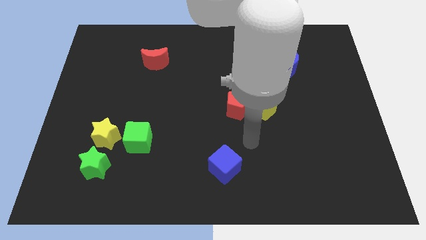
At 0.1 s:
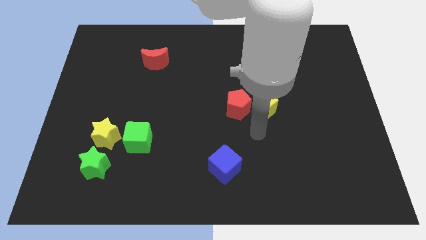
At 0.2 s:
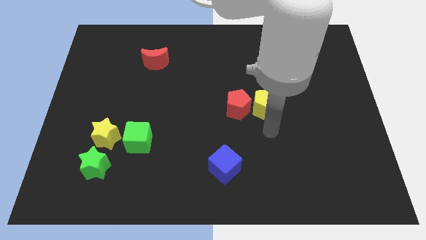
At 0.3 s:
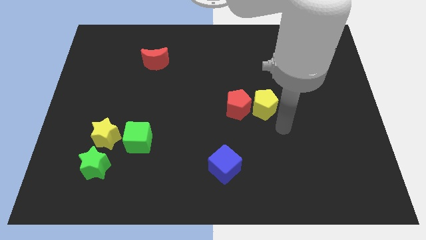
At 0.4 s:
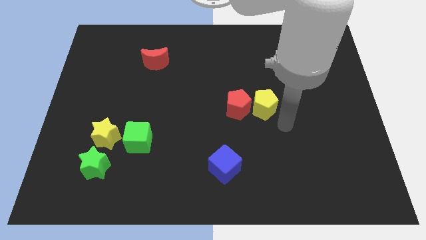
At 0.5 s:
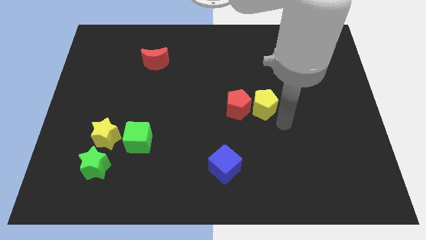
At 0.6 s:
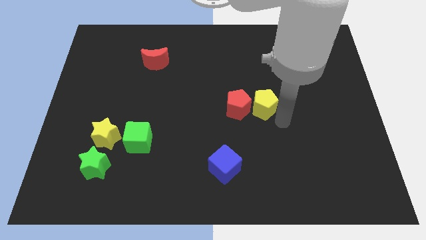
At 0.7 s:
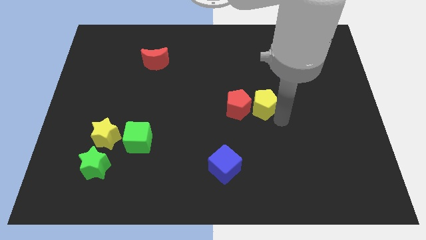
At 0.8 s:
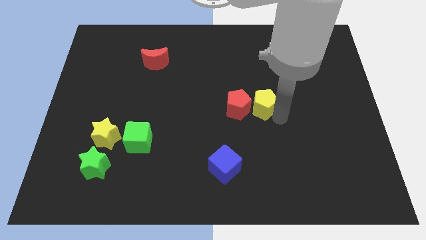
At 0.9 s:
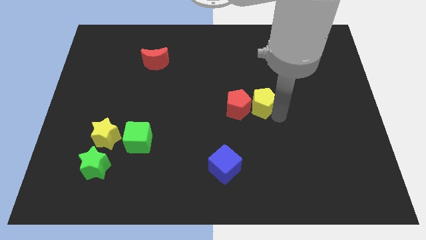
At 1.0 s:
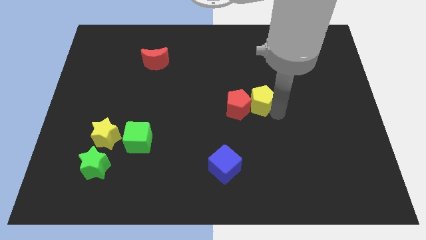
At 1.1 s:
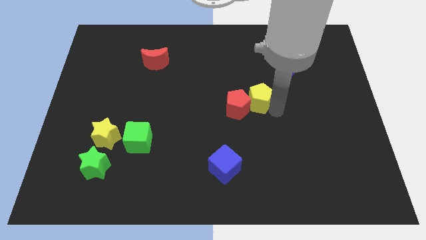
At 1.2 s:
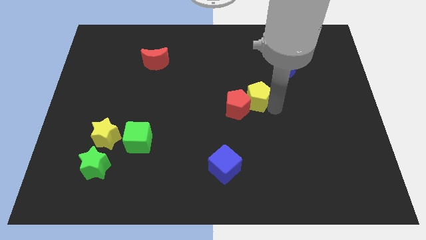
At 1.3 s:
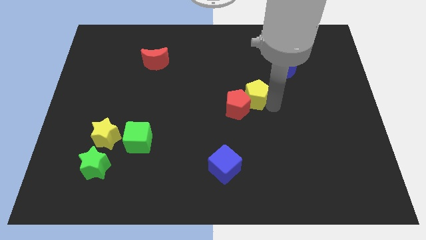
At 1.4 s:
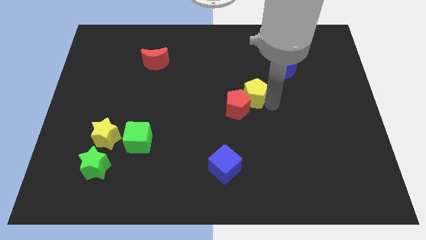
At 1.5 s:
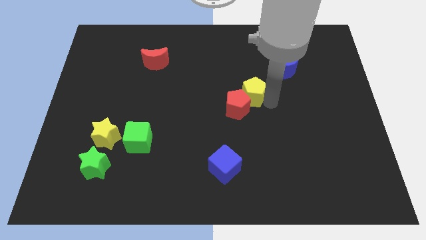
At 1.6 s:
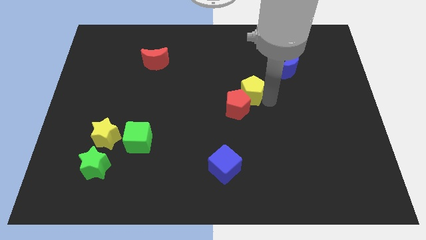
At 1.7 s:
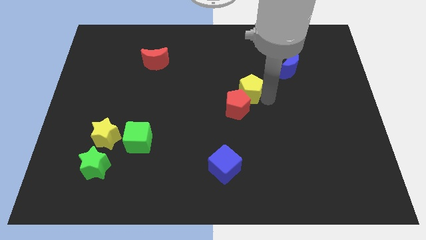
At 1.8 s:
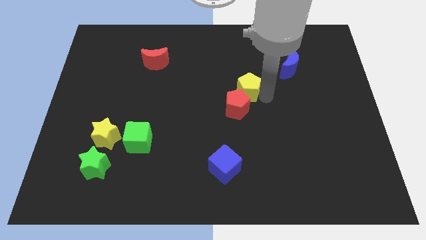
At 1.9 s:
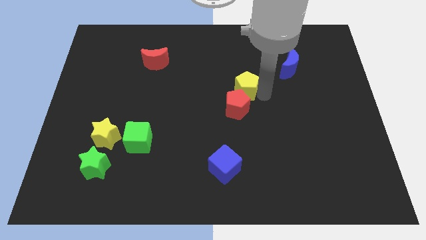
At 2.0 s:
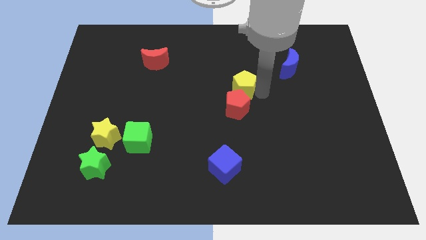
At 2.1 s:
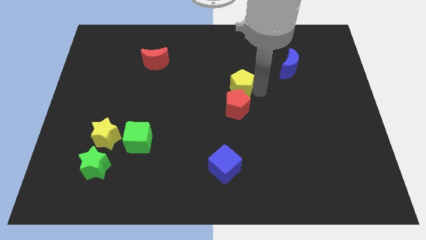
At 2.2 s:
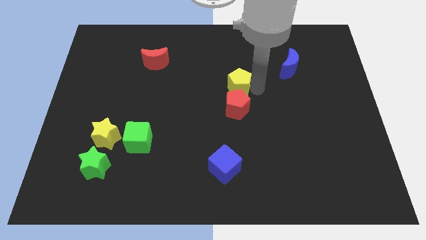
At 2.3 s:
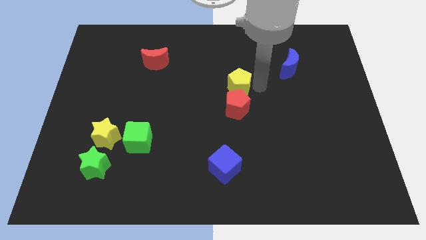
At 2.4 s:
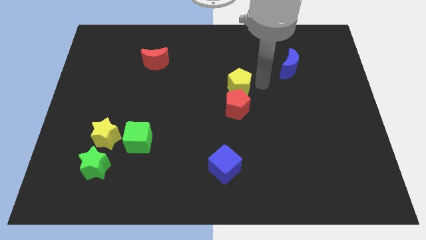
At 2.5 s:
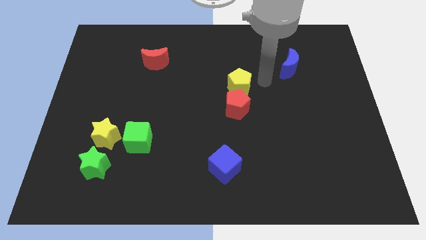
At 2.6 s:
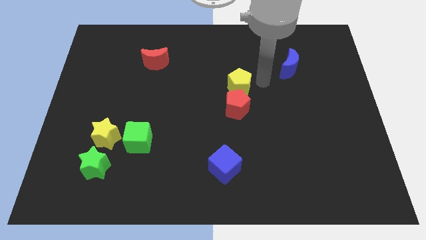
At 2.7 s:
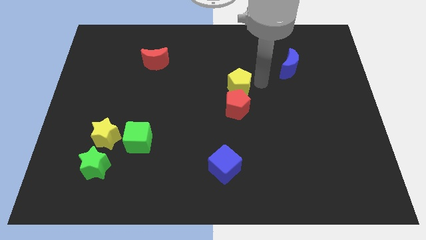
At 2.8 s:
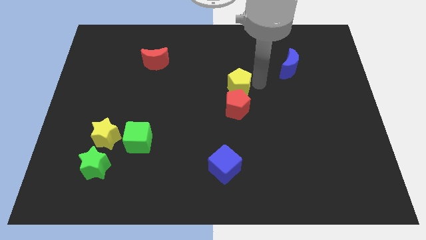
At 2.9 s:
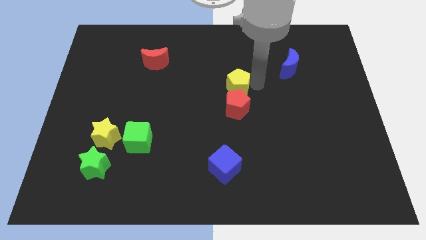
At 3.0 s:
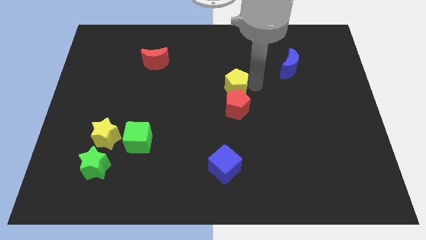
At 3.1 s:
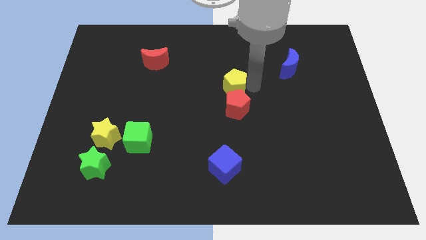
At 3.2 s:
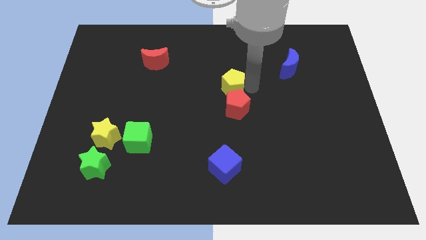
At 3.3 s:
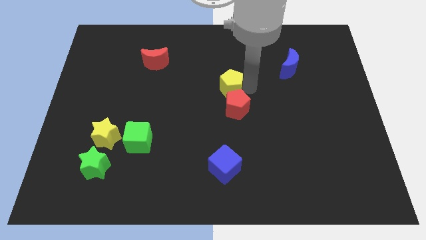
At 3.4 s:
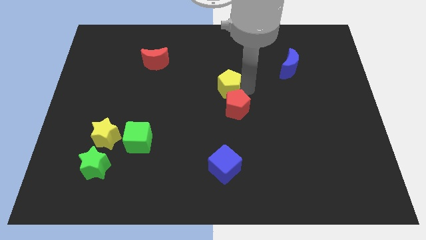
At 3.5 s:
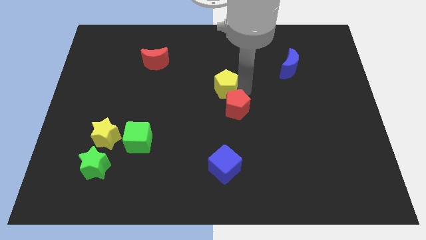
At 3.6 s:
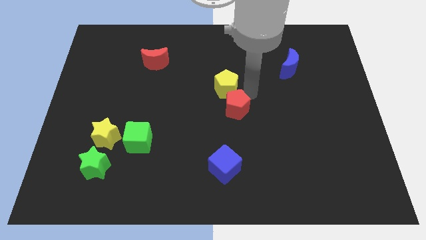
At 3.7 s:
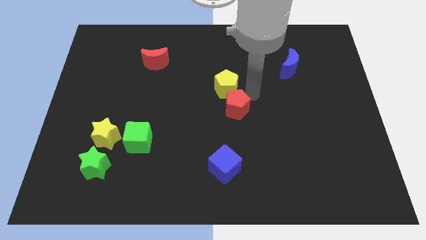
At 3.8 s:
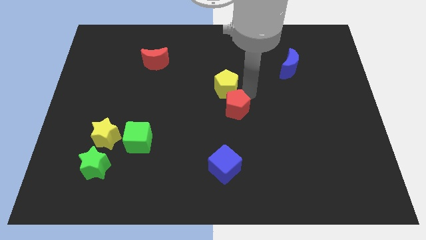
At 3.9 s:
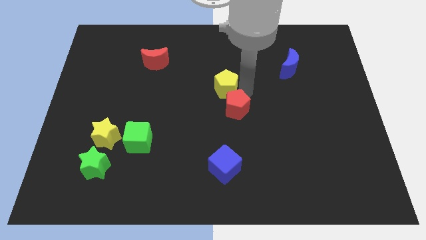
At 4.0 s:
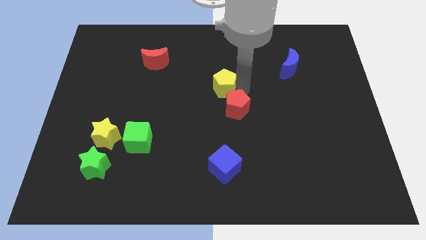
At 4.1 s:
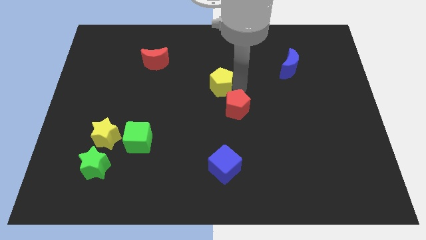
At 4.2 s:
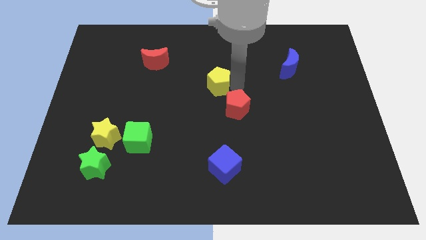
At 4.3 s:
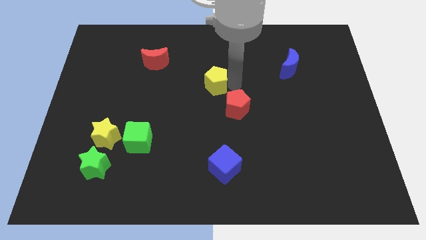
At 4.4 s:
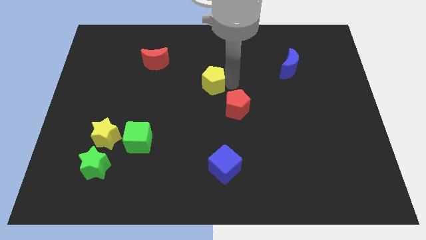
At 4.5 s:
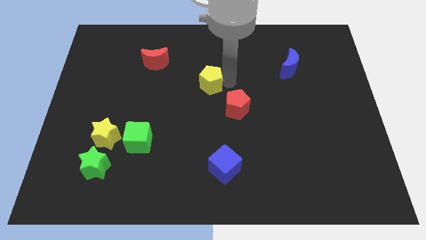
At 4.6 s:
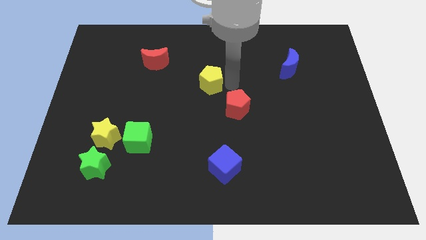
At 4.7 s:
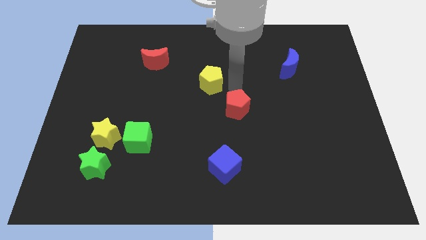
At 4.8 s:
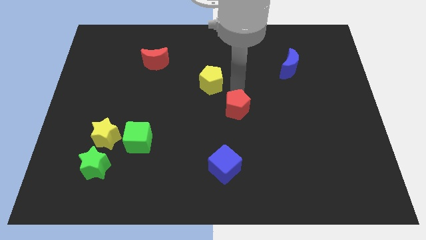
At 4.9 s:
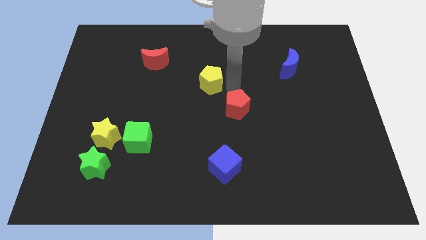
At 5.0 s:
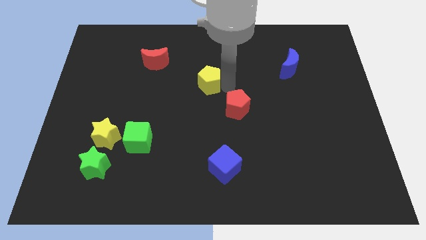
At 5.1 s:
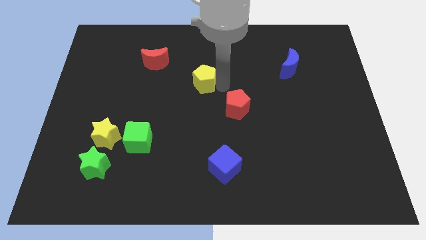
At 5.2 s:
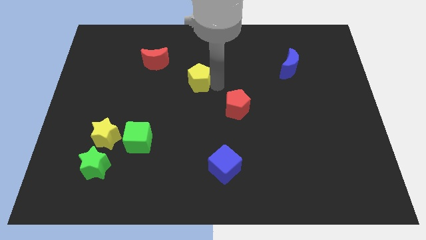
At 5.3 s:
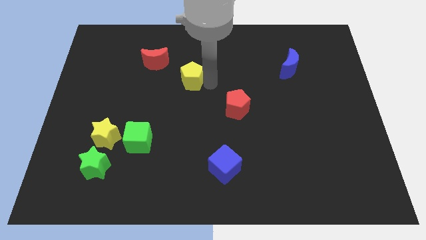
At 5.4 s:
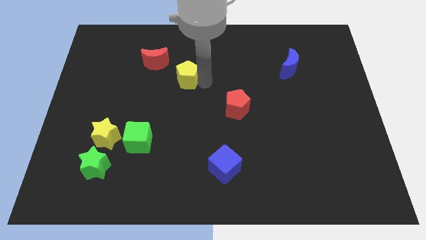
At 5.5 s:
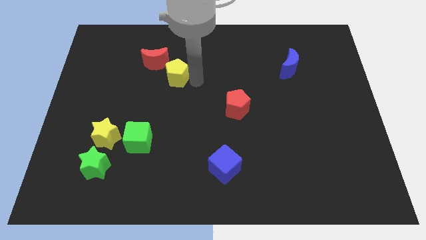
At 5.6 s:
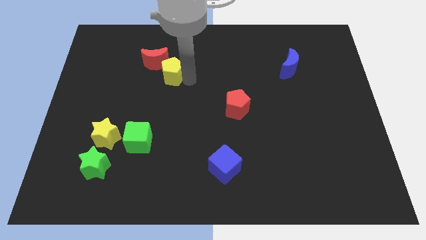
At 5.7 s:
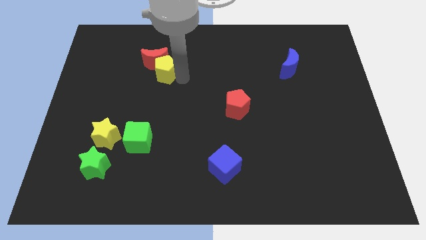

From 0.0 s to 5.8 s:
push the yellow pentagon towards the red moon

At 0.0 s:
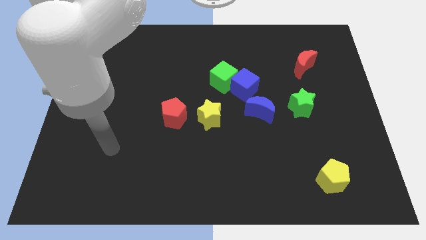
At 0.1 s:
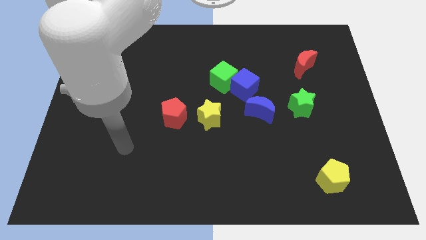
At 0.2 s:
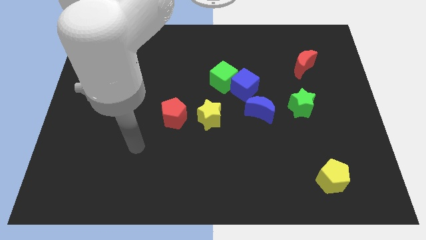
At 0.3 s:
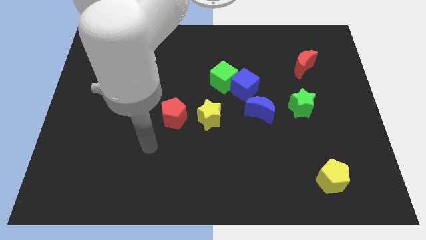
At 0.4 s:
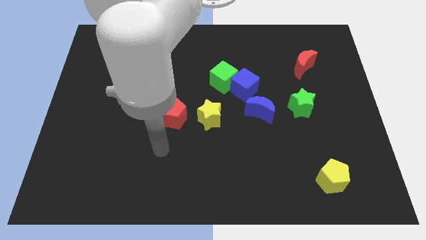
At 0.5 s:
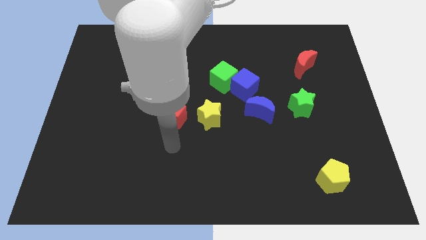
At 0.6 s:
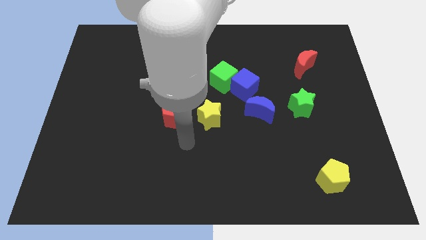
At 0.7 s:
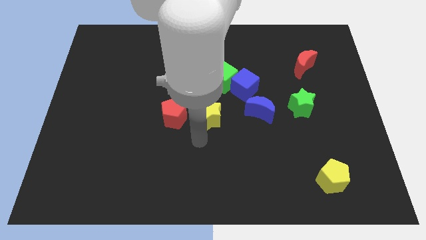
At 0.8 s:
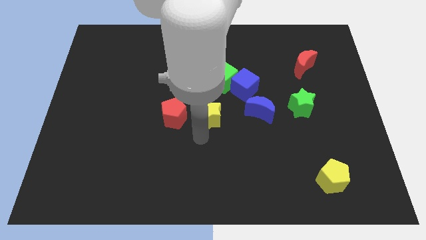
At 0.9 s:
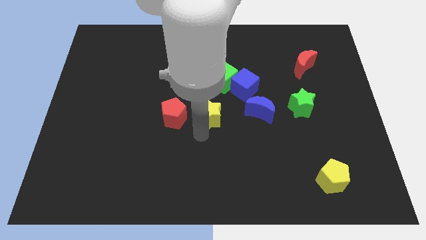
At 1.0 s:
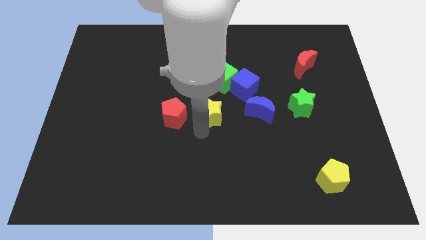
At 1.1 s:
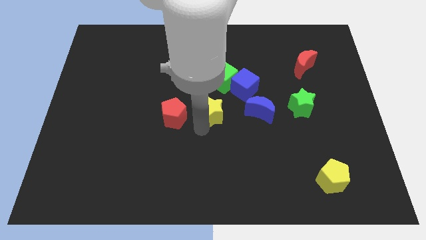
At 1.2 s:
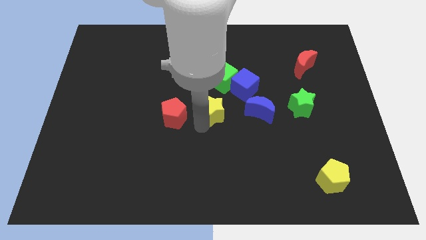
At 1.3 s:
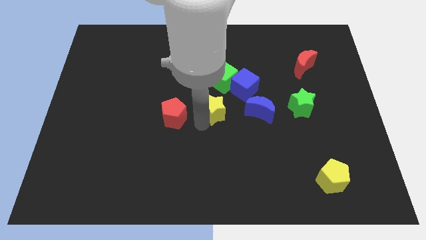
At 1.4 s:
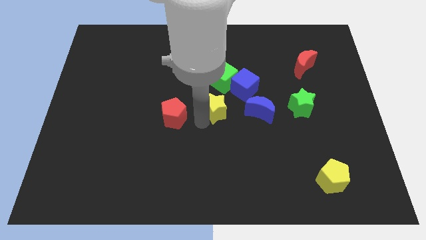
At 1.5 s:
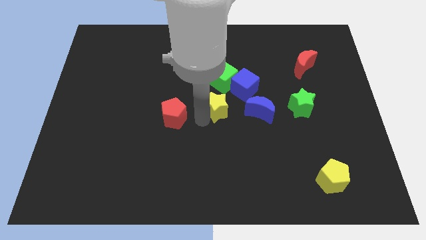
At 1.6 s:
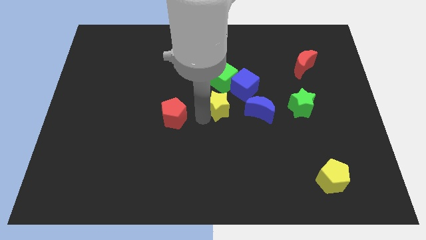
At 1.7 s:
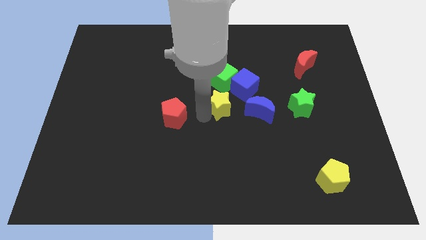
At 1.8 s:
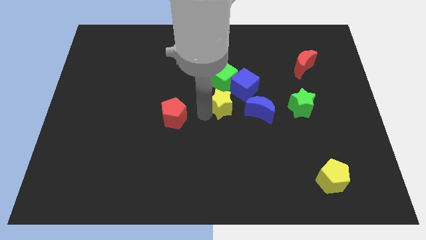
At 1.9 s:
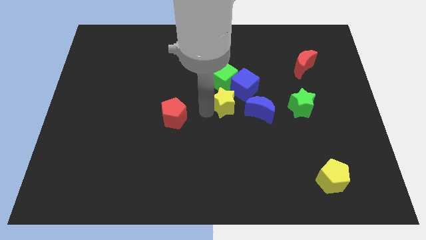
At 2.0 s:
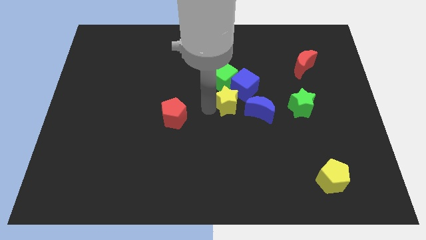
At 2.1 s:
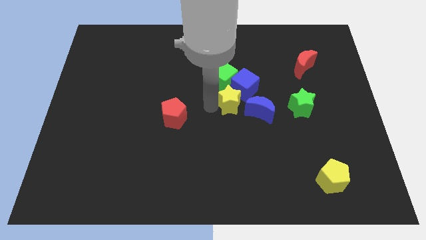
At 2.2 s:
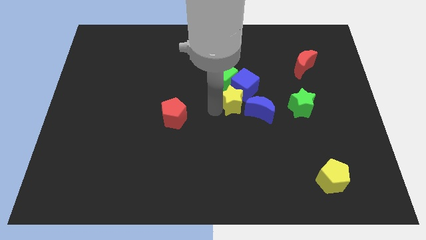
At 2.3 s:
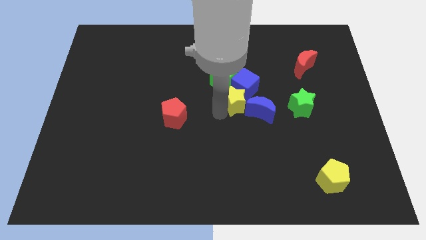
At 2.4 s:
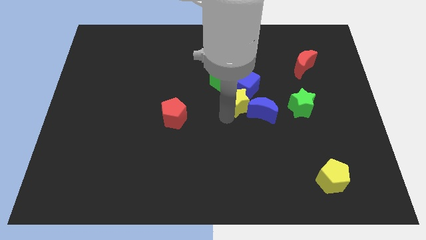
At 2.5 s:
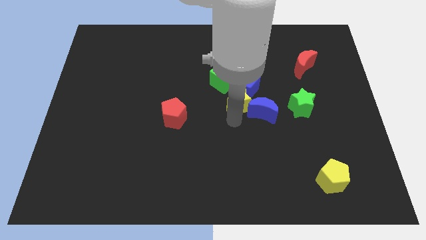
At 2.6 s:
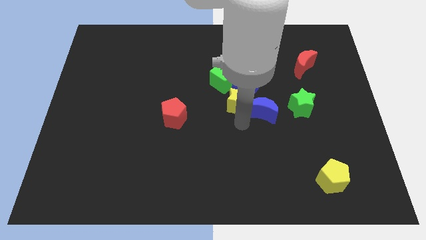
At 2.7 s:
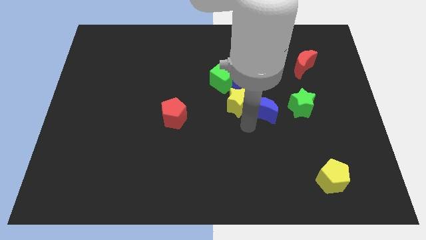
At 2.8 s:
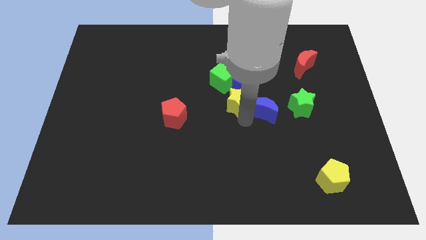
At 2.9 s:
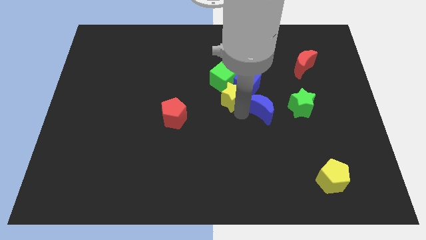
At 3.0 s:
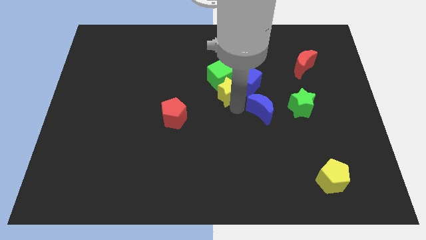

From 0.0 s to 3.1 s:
slide the yellow star towards the green cube
